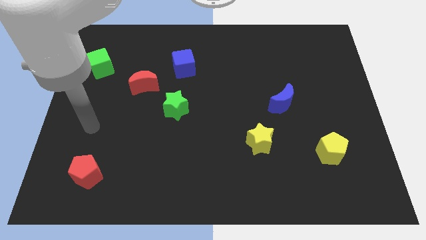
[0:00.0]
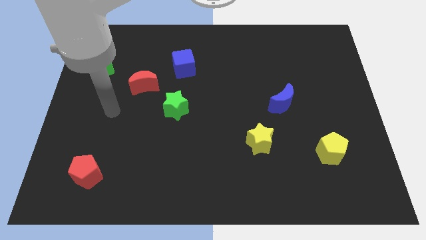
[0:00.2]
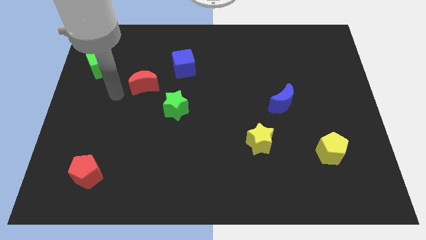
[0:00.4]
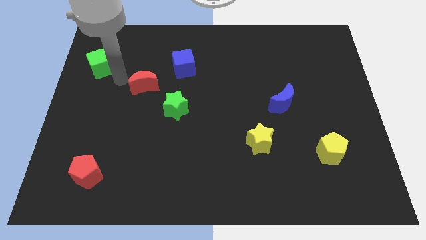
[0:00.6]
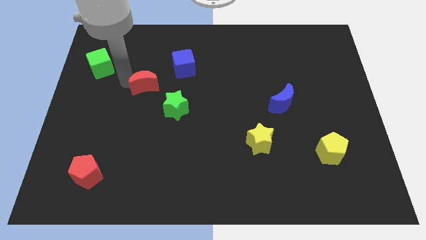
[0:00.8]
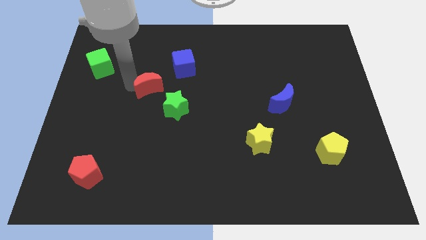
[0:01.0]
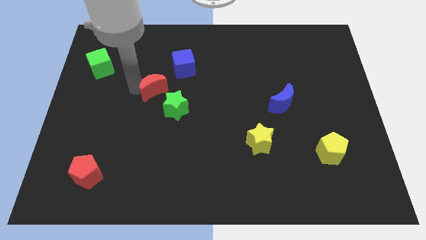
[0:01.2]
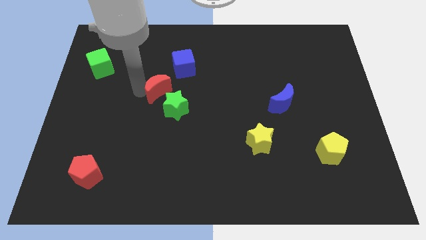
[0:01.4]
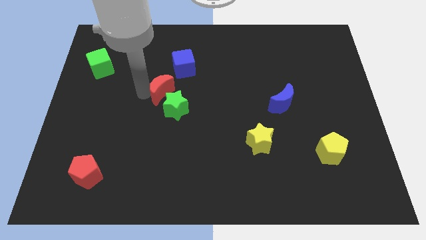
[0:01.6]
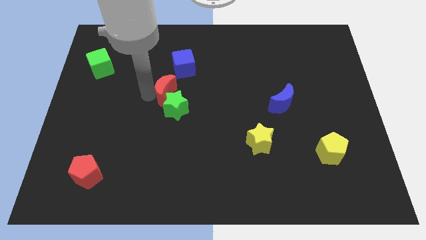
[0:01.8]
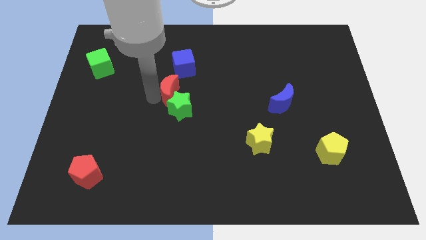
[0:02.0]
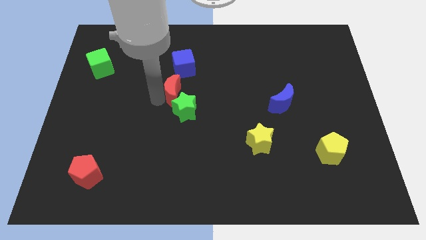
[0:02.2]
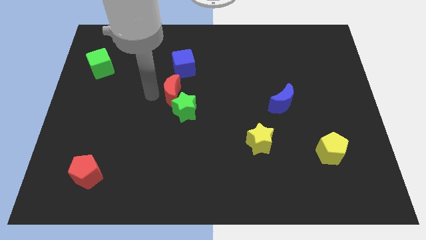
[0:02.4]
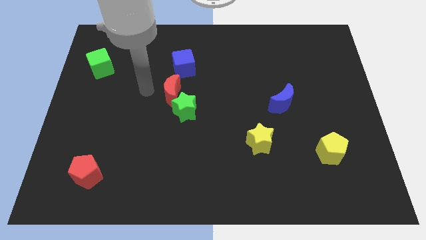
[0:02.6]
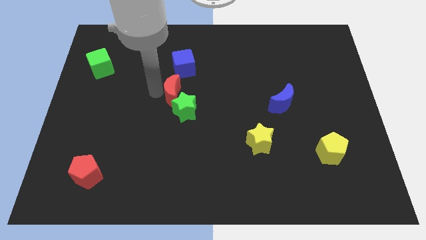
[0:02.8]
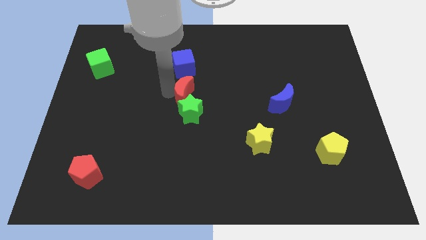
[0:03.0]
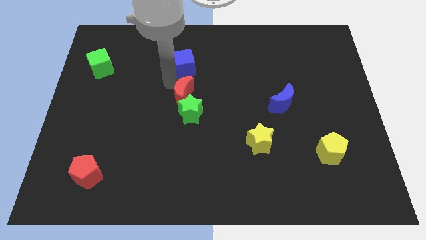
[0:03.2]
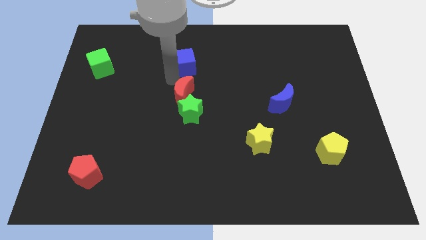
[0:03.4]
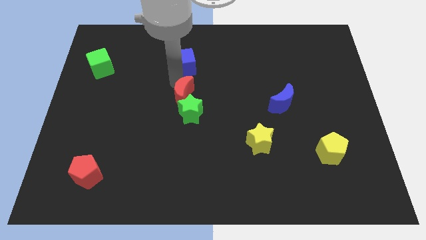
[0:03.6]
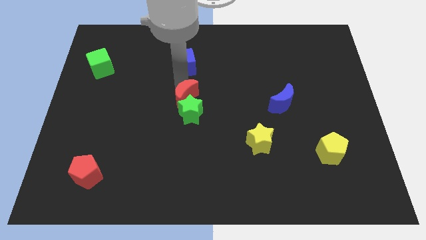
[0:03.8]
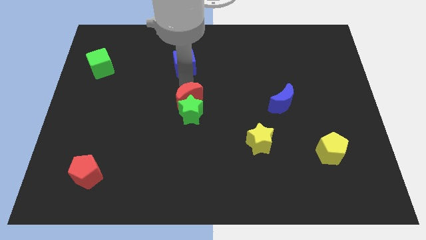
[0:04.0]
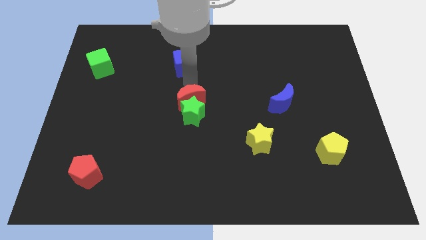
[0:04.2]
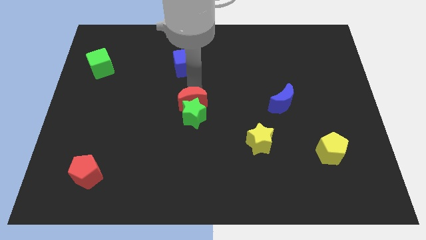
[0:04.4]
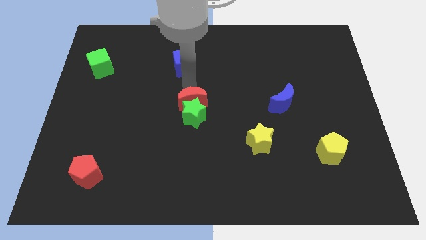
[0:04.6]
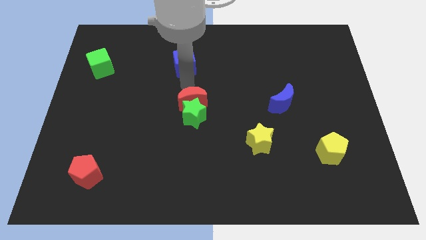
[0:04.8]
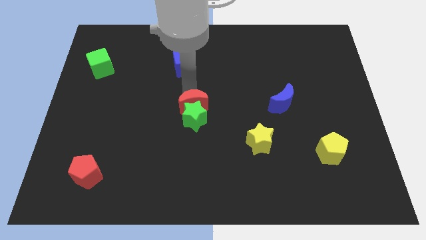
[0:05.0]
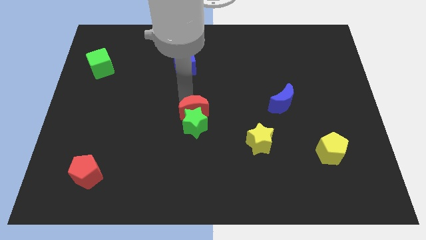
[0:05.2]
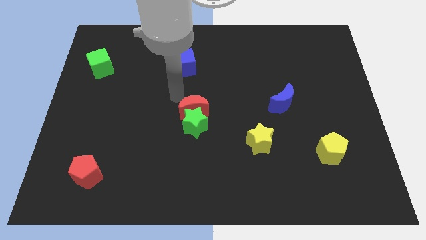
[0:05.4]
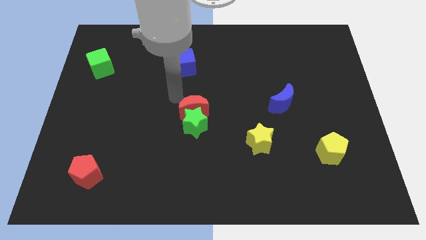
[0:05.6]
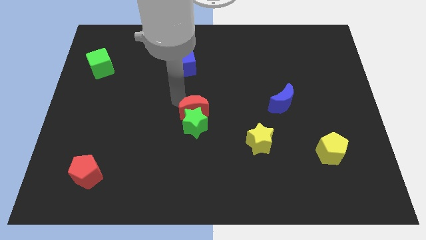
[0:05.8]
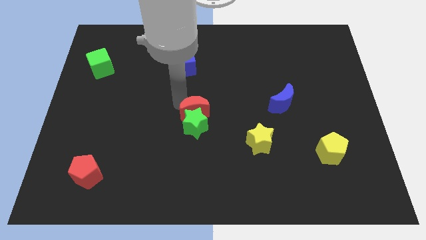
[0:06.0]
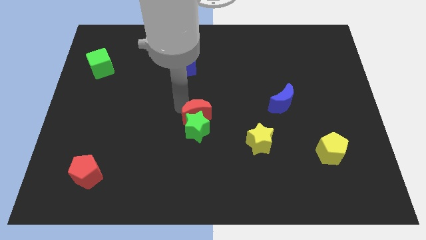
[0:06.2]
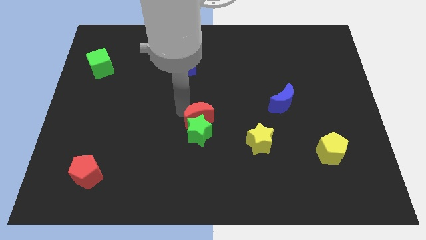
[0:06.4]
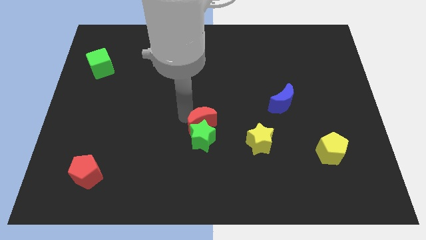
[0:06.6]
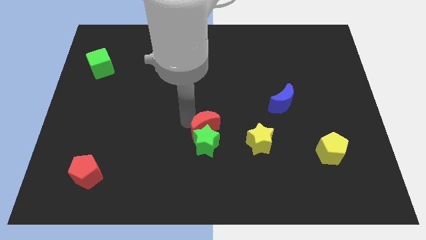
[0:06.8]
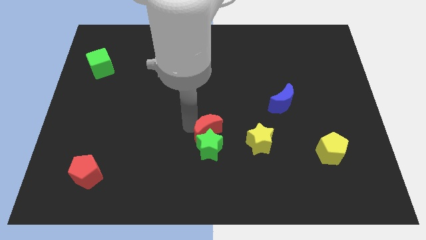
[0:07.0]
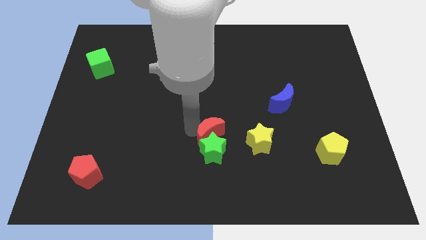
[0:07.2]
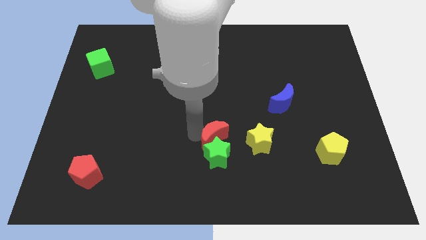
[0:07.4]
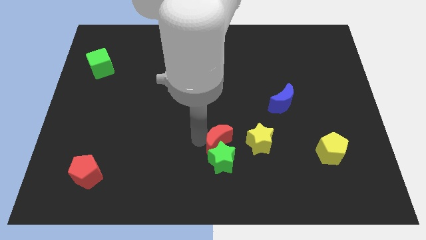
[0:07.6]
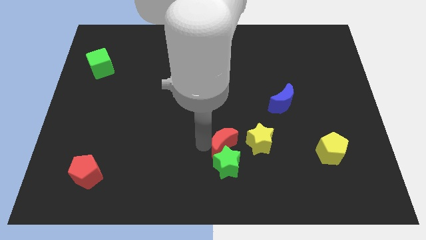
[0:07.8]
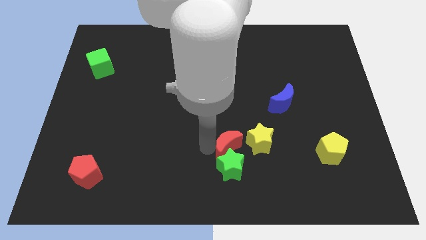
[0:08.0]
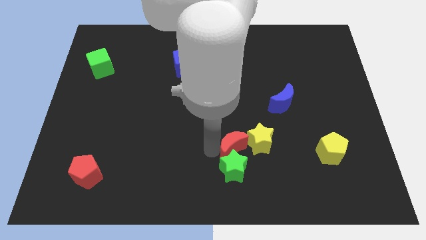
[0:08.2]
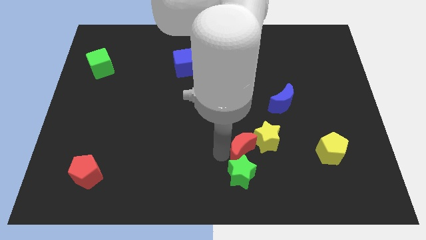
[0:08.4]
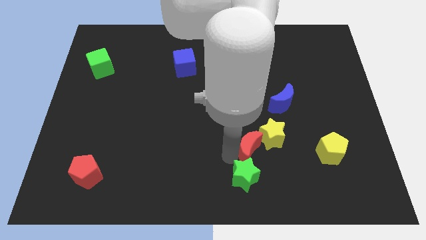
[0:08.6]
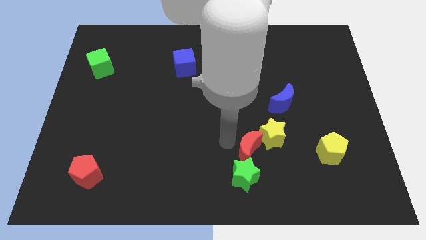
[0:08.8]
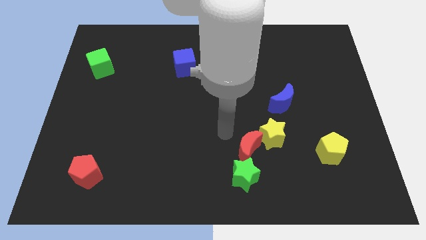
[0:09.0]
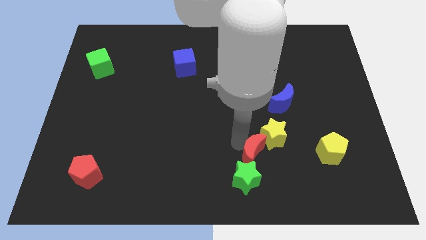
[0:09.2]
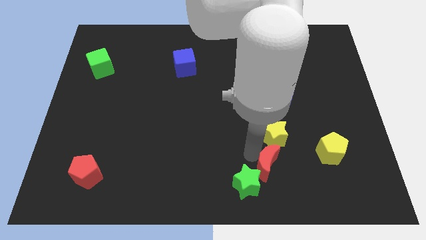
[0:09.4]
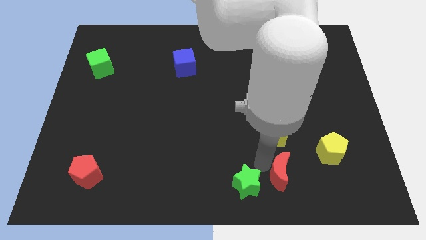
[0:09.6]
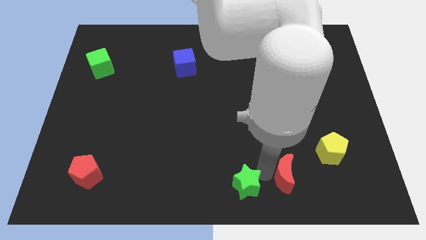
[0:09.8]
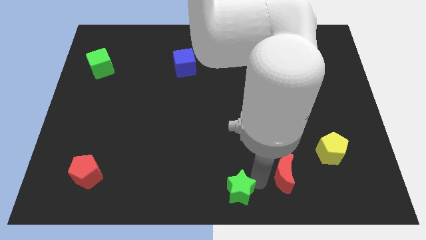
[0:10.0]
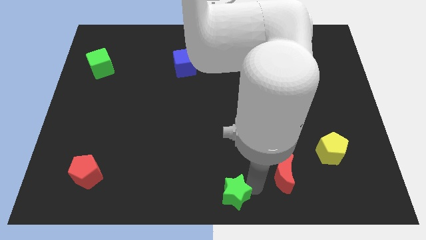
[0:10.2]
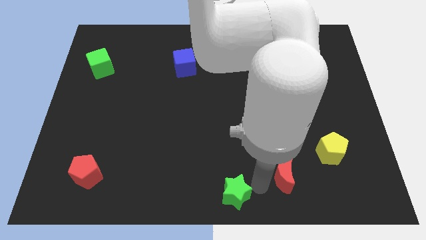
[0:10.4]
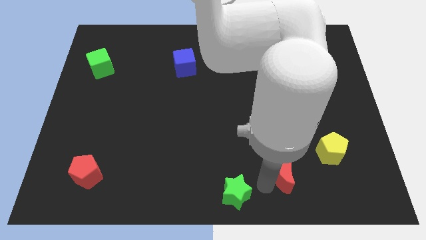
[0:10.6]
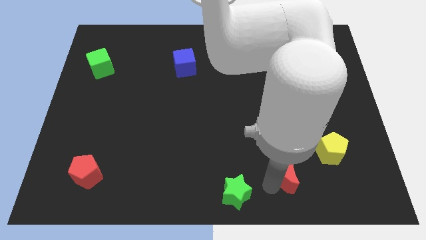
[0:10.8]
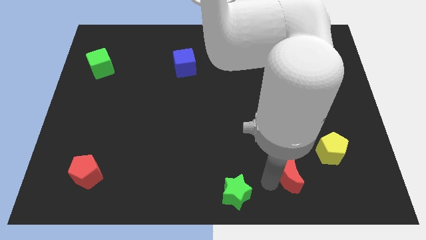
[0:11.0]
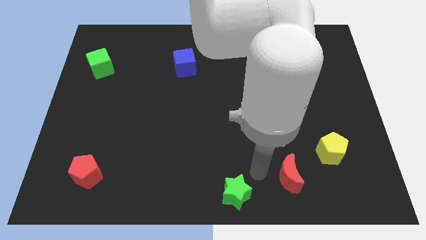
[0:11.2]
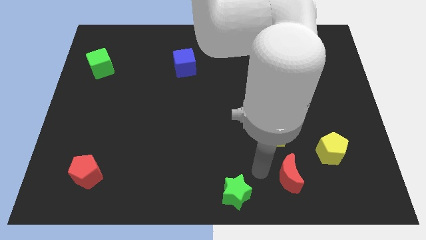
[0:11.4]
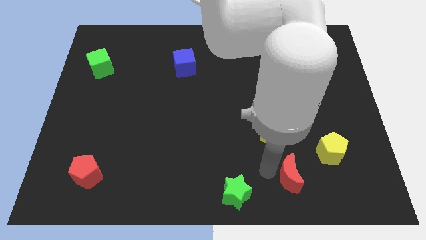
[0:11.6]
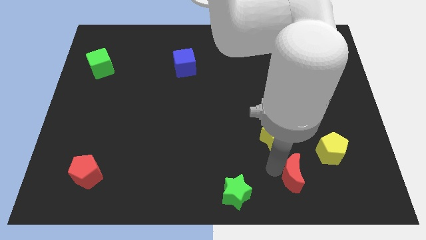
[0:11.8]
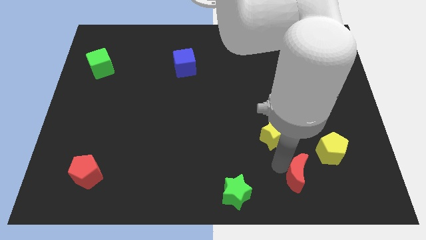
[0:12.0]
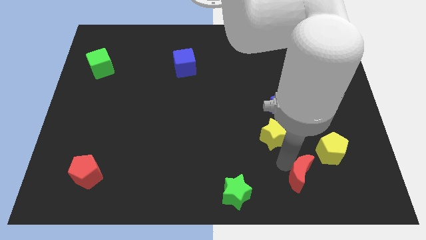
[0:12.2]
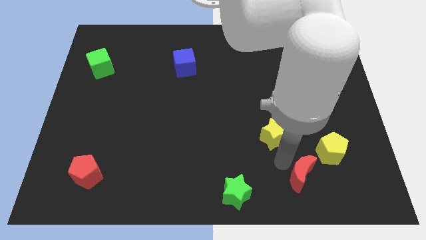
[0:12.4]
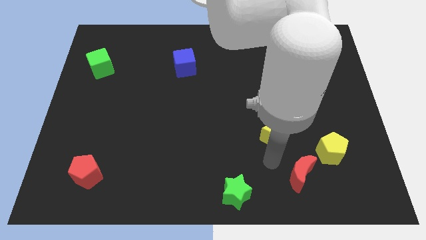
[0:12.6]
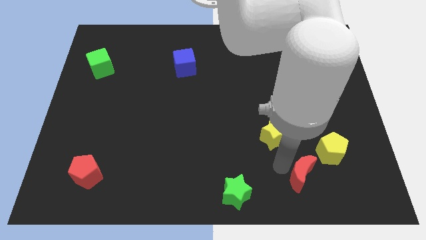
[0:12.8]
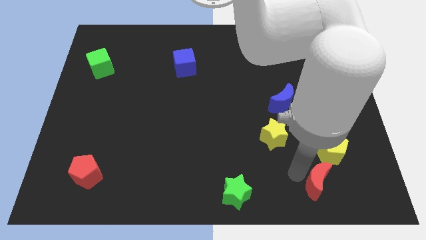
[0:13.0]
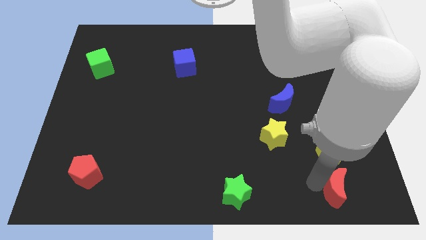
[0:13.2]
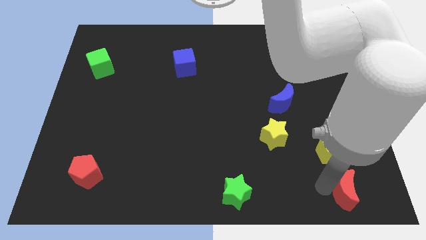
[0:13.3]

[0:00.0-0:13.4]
move the red moon to the bottom right
